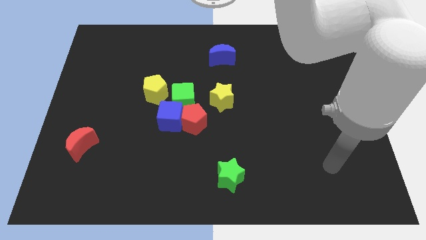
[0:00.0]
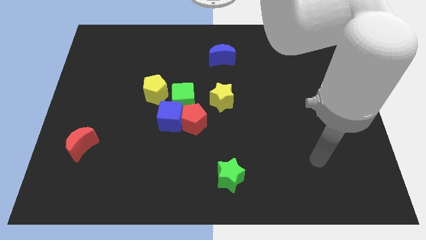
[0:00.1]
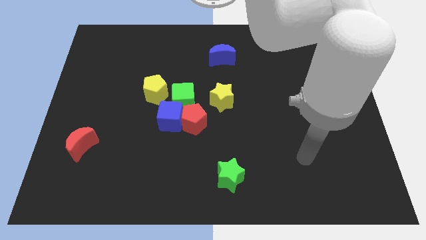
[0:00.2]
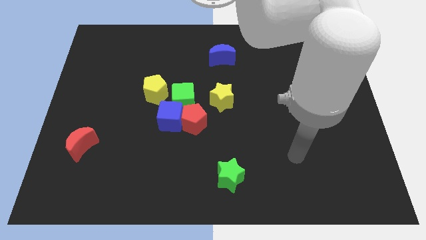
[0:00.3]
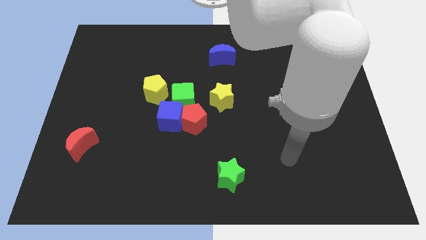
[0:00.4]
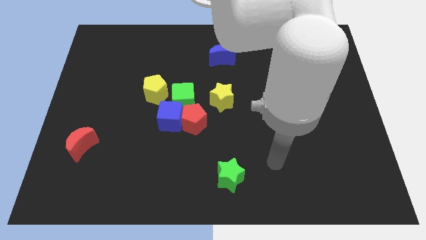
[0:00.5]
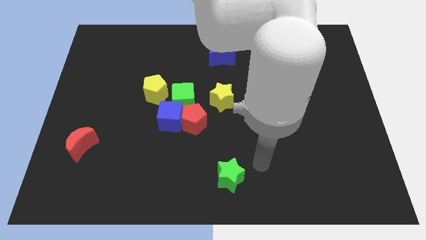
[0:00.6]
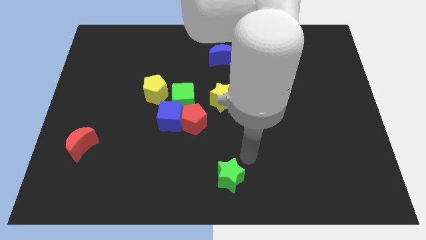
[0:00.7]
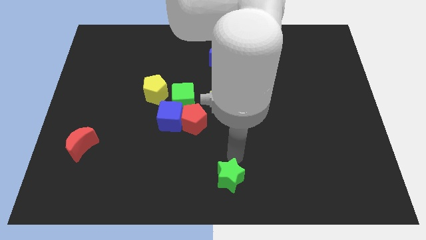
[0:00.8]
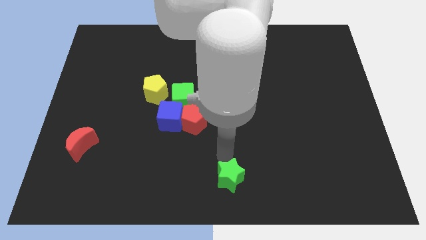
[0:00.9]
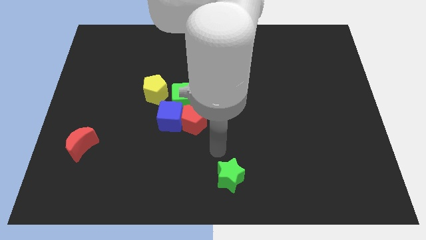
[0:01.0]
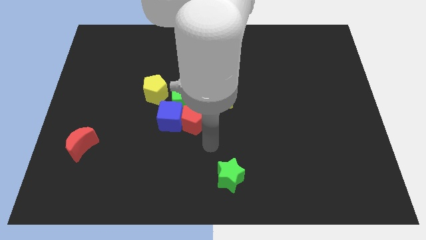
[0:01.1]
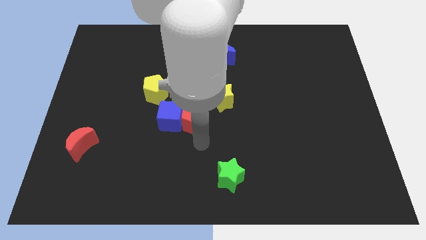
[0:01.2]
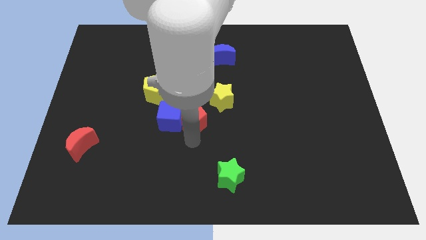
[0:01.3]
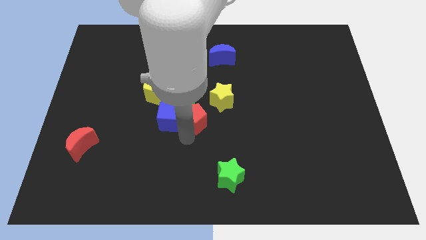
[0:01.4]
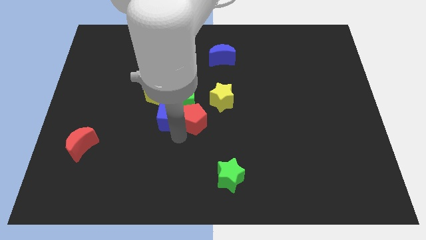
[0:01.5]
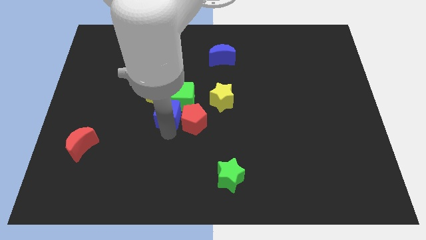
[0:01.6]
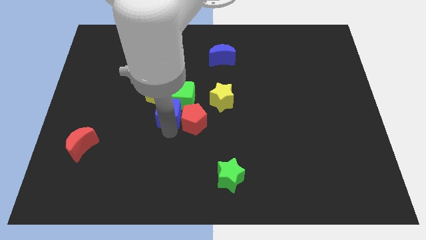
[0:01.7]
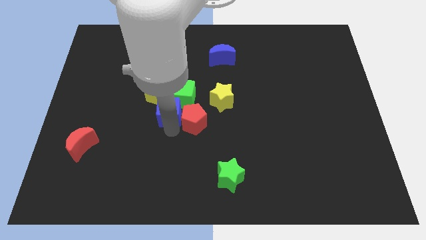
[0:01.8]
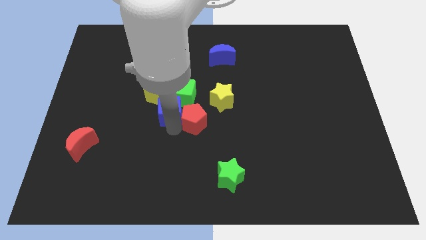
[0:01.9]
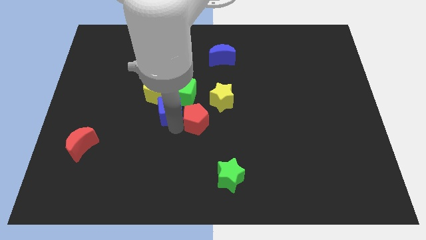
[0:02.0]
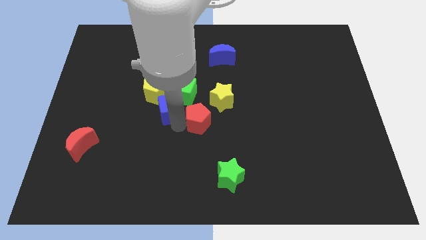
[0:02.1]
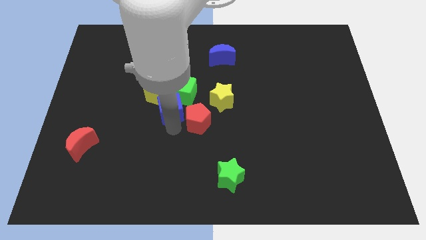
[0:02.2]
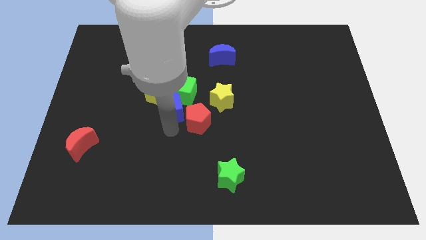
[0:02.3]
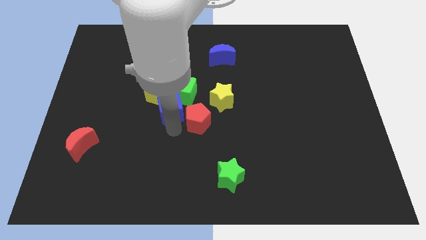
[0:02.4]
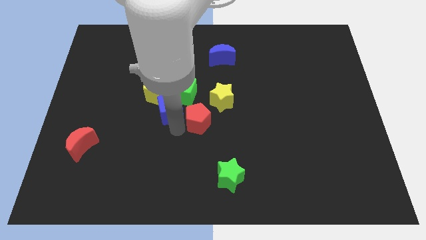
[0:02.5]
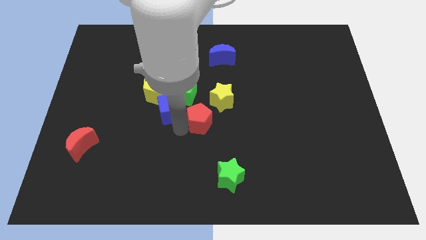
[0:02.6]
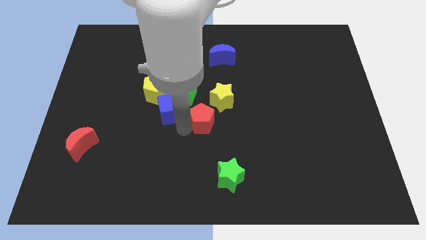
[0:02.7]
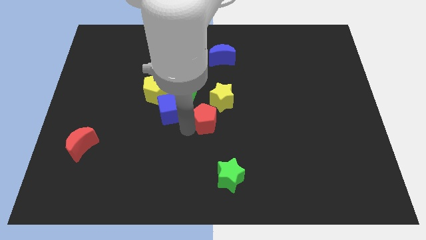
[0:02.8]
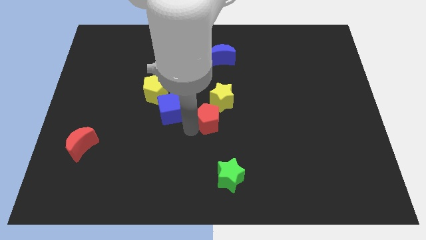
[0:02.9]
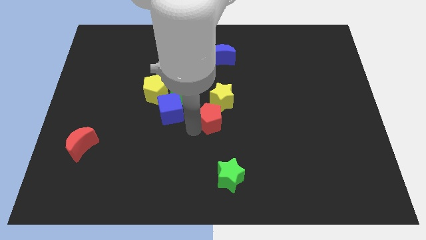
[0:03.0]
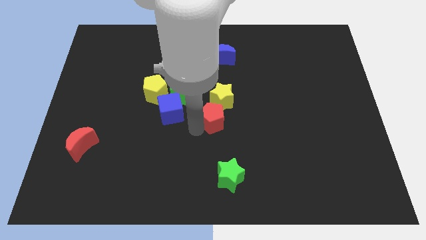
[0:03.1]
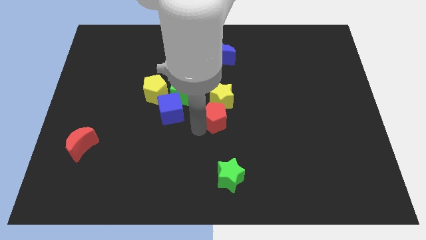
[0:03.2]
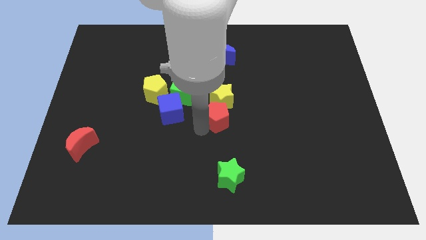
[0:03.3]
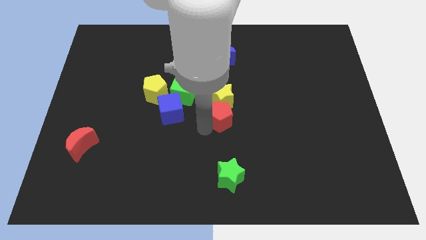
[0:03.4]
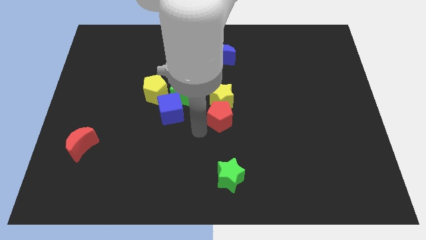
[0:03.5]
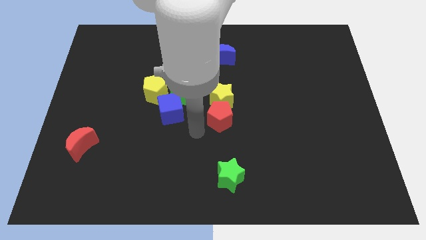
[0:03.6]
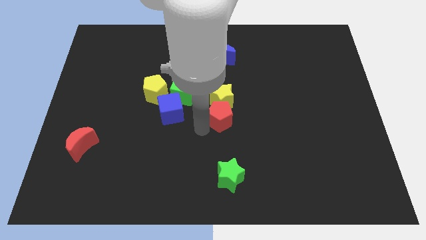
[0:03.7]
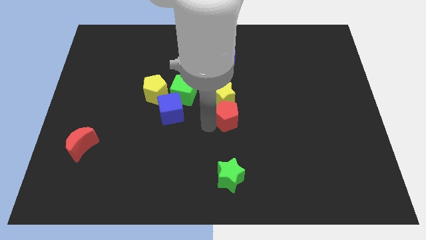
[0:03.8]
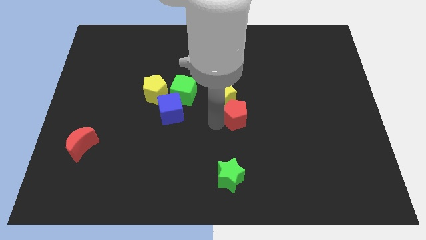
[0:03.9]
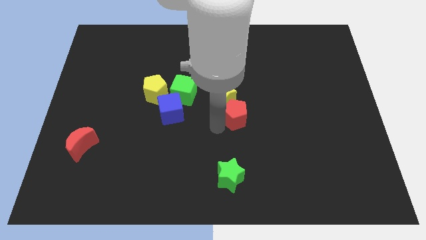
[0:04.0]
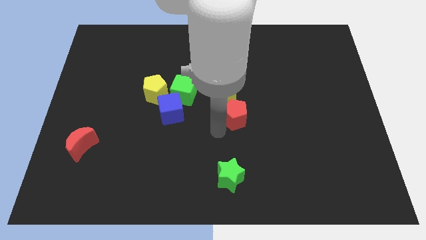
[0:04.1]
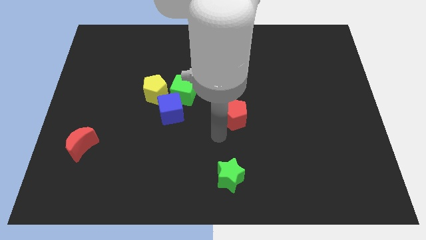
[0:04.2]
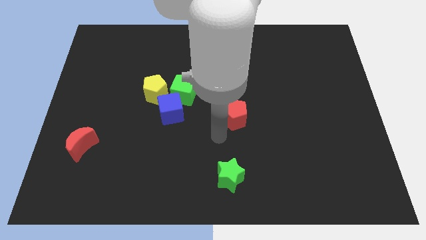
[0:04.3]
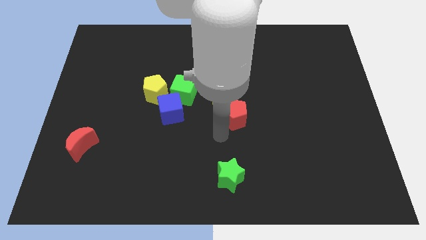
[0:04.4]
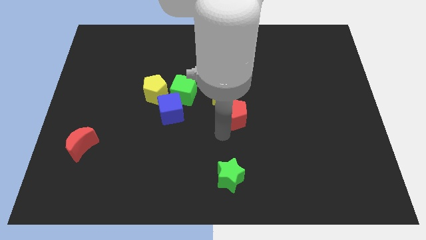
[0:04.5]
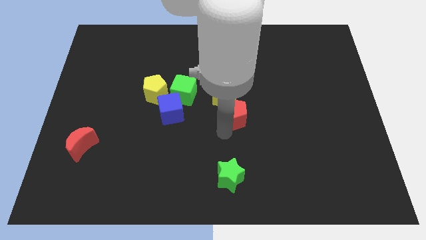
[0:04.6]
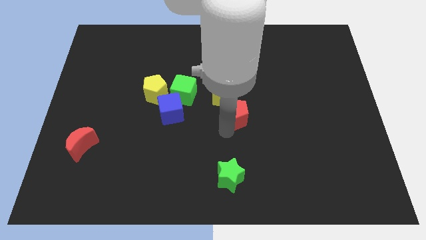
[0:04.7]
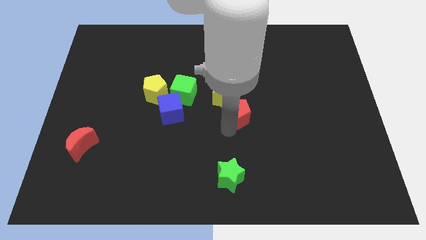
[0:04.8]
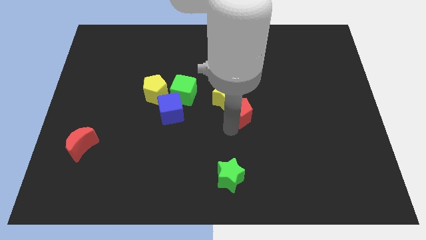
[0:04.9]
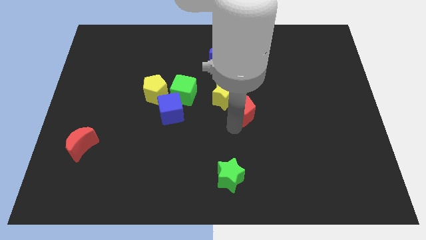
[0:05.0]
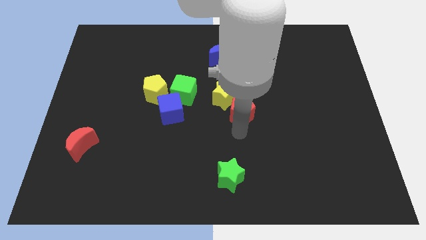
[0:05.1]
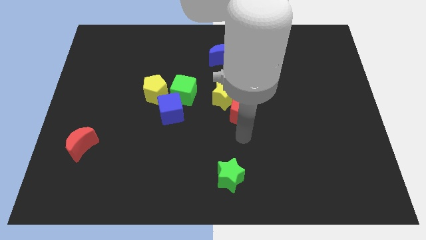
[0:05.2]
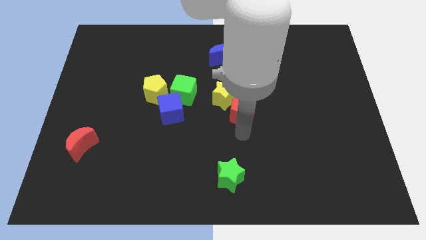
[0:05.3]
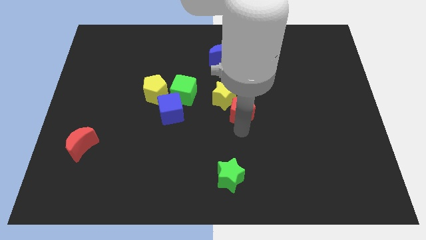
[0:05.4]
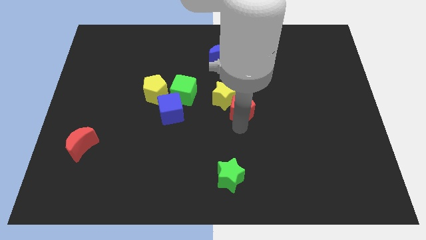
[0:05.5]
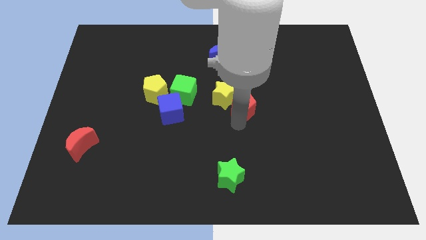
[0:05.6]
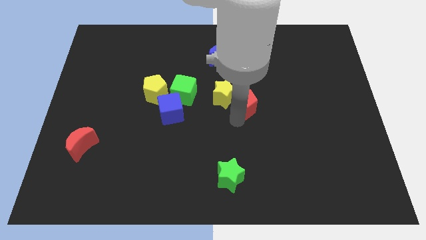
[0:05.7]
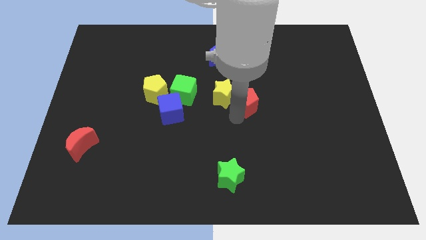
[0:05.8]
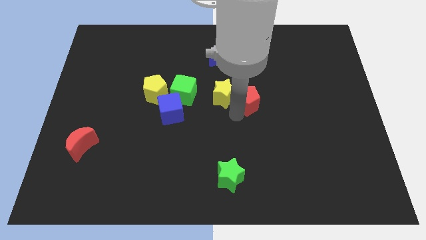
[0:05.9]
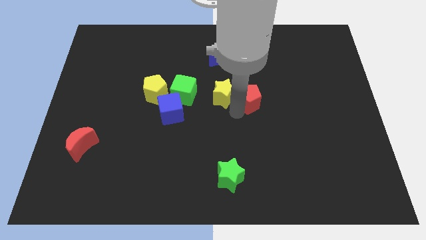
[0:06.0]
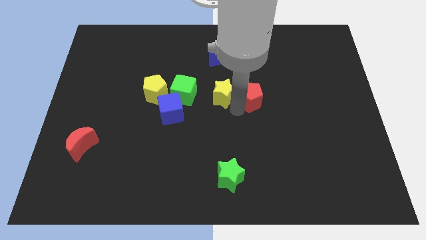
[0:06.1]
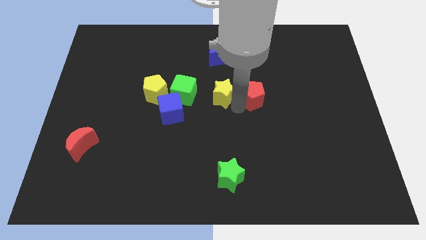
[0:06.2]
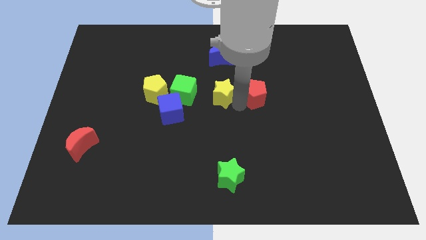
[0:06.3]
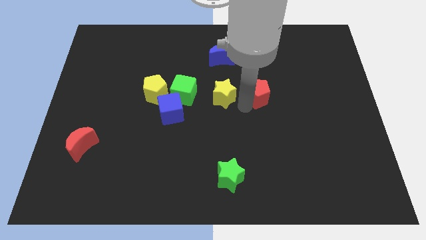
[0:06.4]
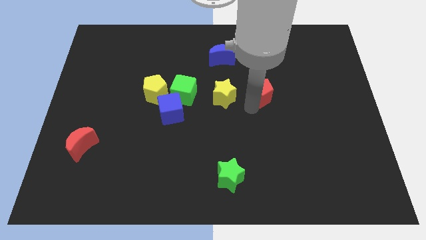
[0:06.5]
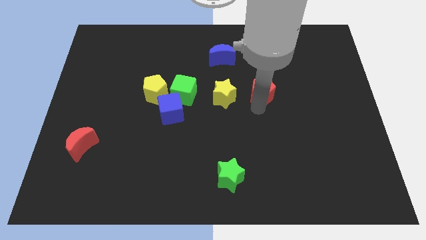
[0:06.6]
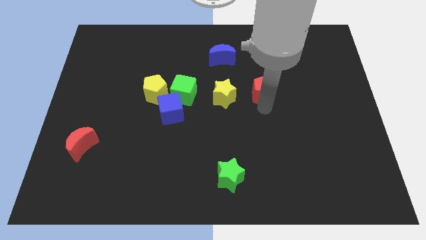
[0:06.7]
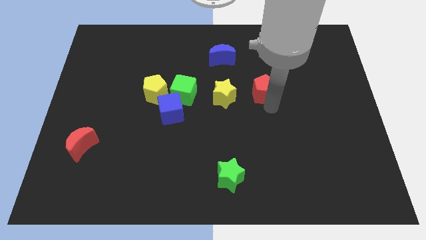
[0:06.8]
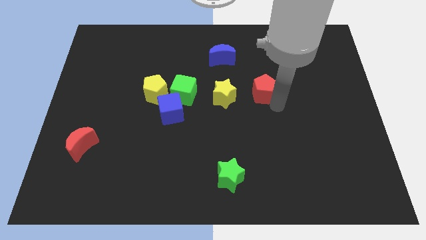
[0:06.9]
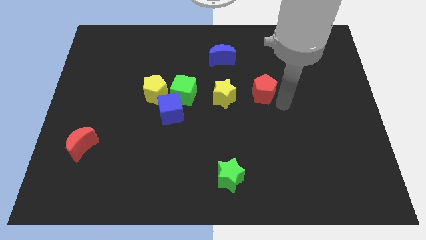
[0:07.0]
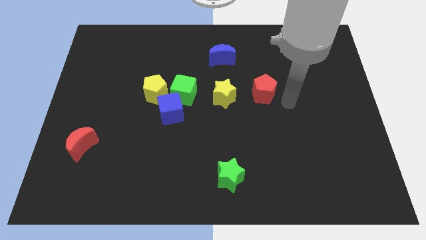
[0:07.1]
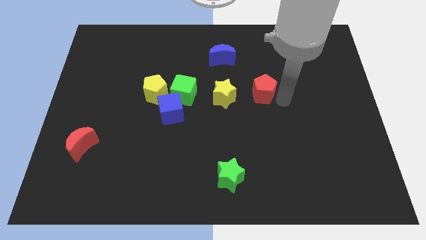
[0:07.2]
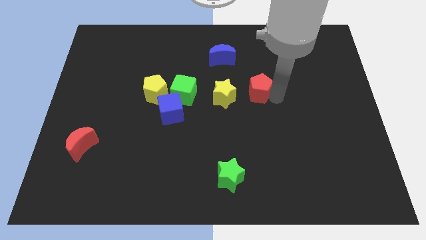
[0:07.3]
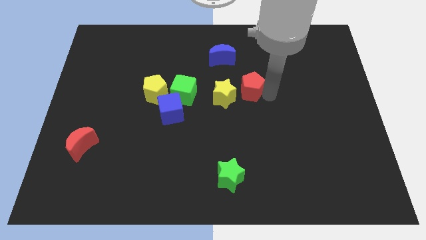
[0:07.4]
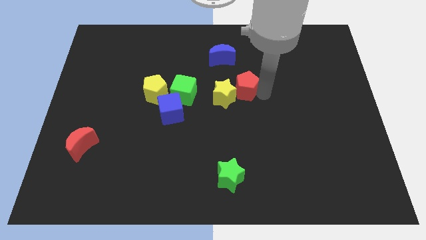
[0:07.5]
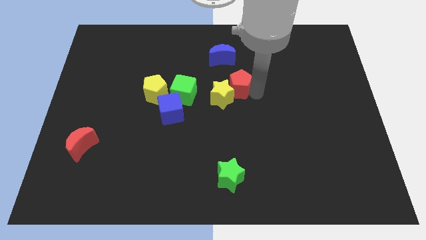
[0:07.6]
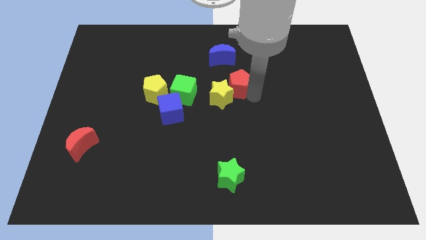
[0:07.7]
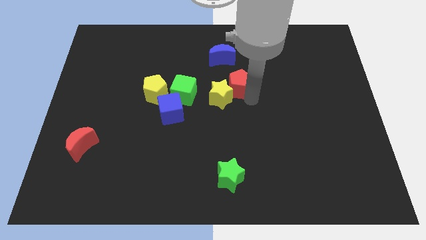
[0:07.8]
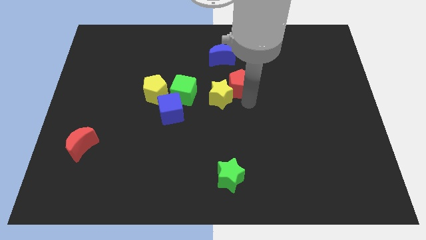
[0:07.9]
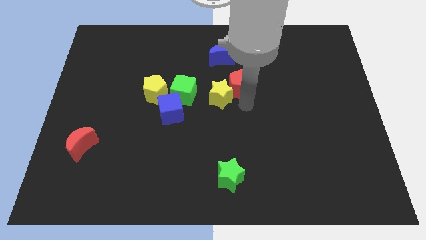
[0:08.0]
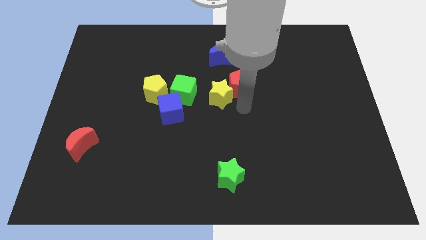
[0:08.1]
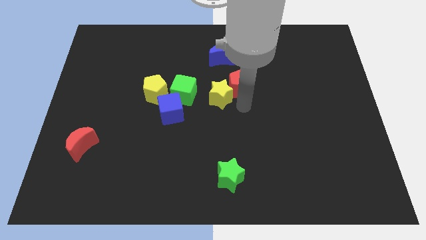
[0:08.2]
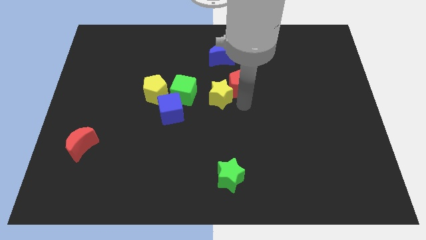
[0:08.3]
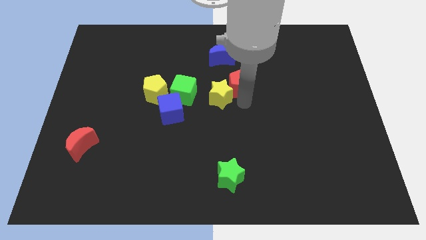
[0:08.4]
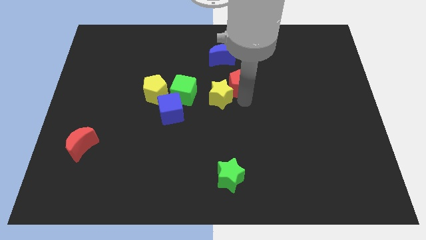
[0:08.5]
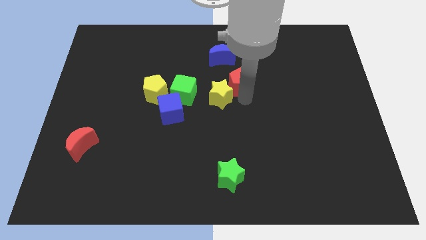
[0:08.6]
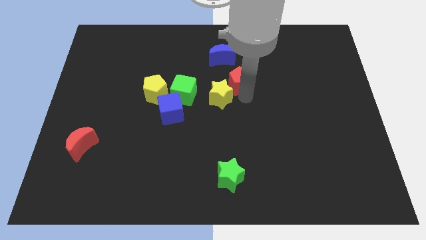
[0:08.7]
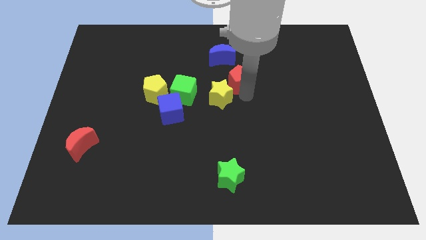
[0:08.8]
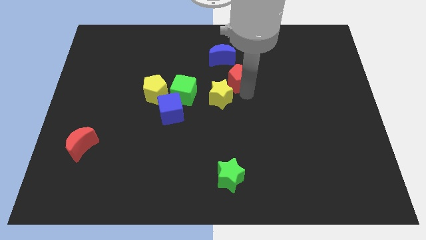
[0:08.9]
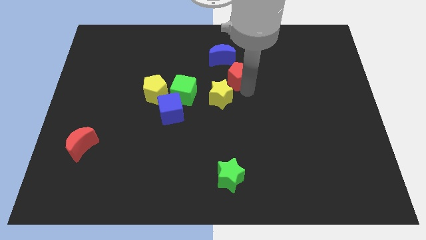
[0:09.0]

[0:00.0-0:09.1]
slide the red pentagon slightly up
